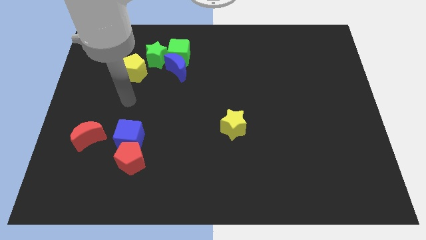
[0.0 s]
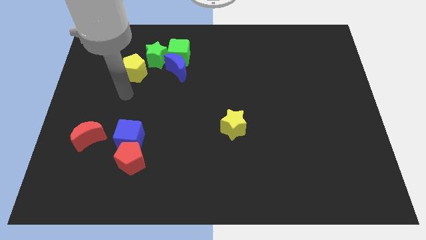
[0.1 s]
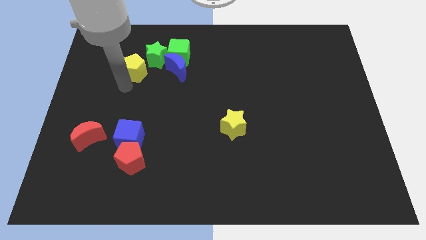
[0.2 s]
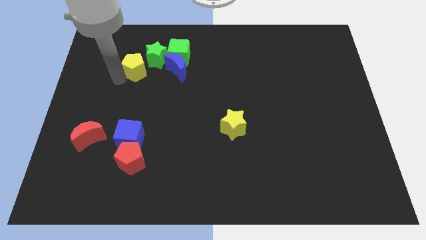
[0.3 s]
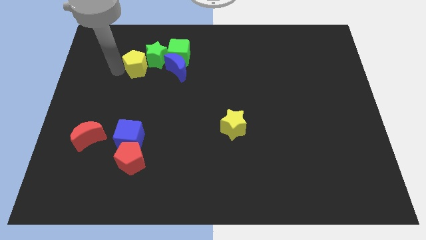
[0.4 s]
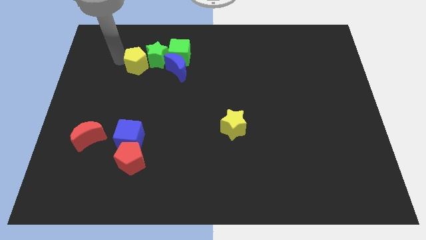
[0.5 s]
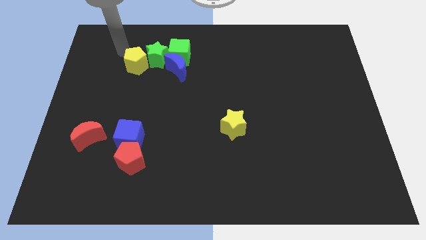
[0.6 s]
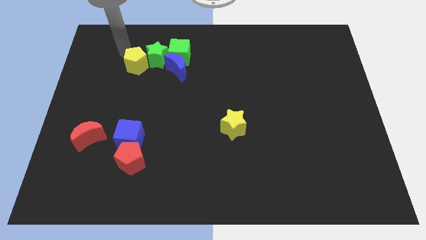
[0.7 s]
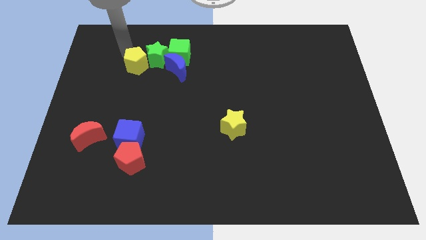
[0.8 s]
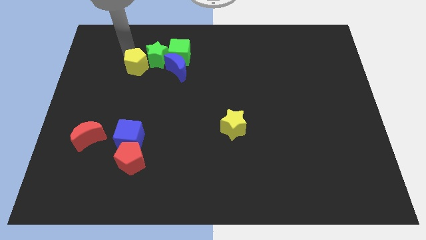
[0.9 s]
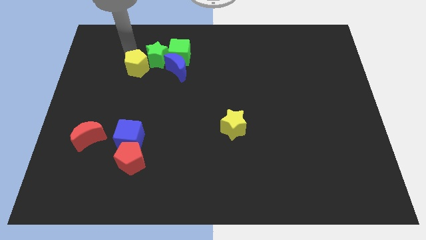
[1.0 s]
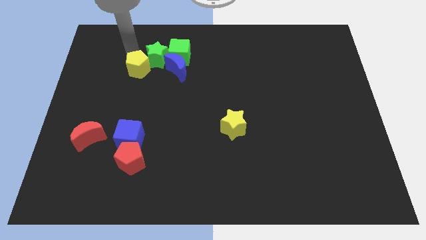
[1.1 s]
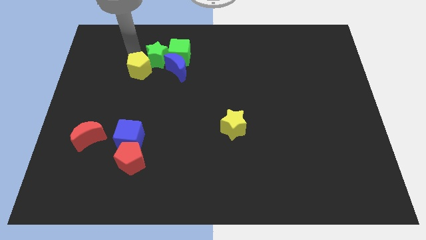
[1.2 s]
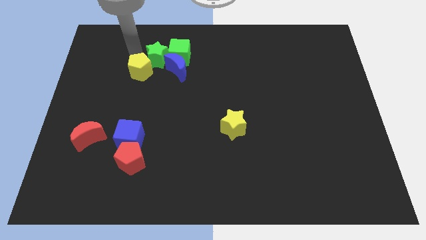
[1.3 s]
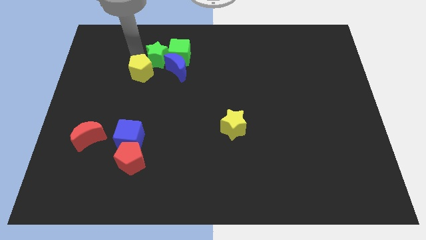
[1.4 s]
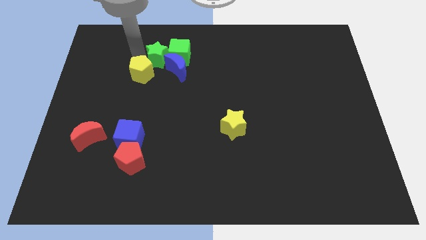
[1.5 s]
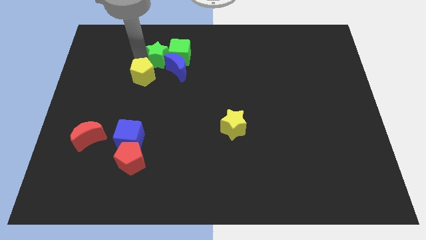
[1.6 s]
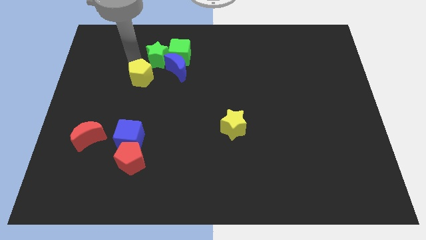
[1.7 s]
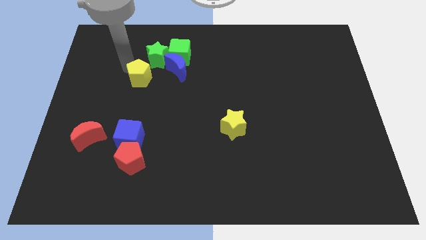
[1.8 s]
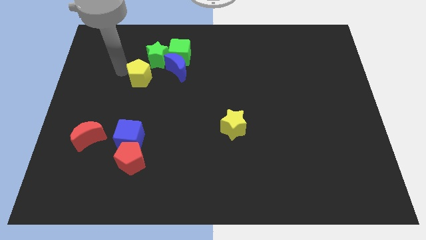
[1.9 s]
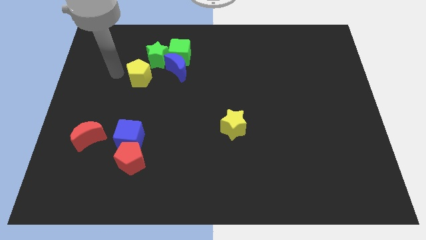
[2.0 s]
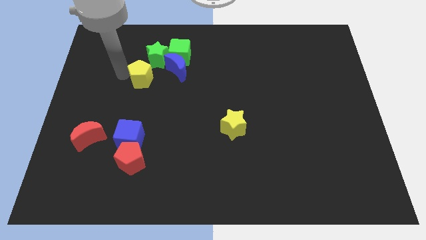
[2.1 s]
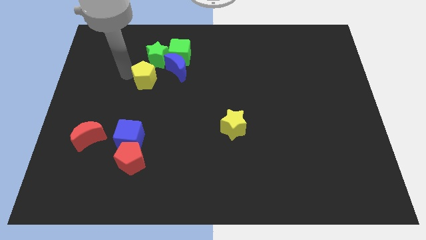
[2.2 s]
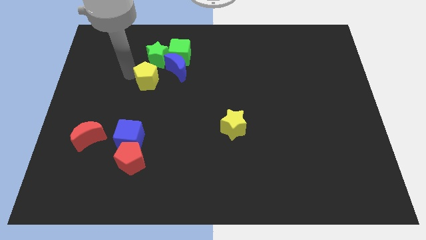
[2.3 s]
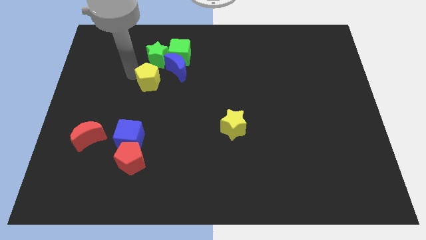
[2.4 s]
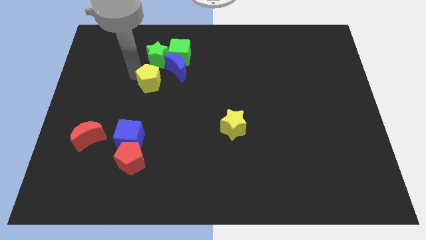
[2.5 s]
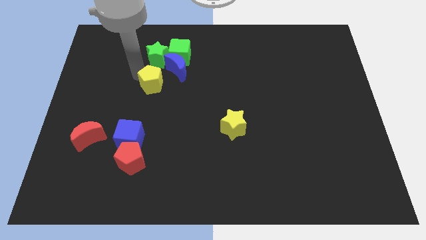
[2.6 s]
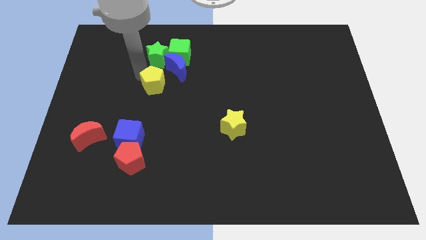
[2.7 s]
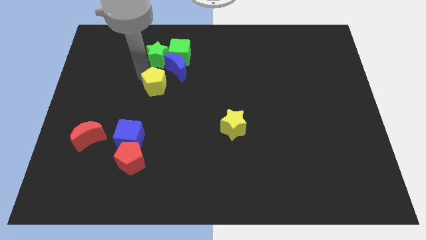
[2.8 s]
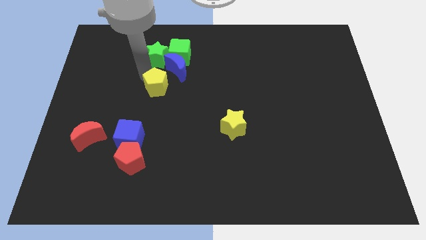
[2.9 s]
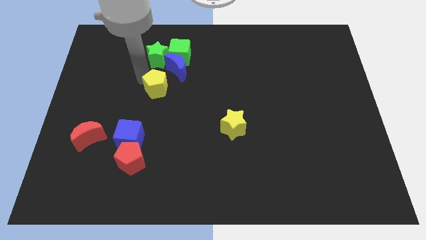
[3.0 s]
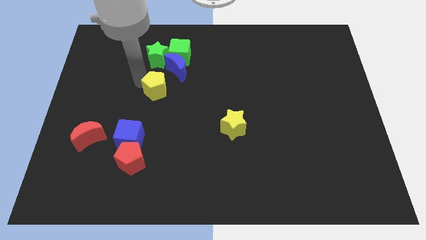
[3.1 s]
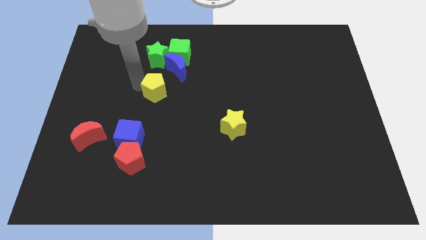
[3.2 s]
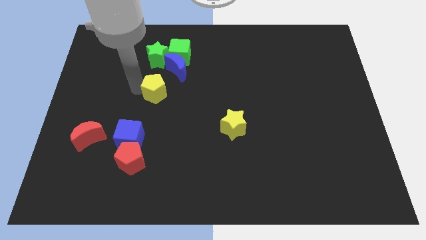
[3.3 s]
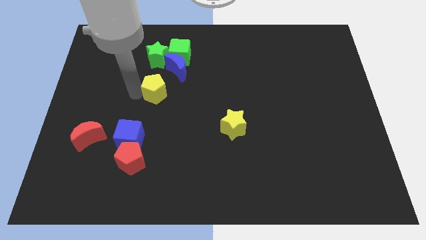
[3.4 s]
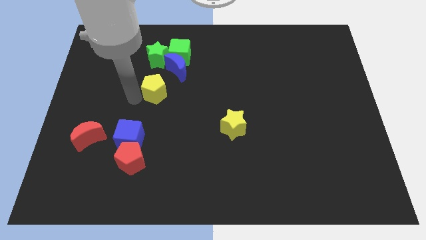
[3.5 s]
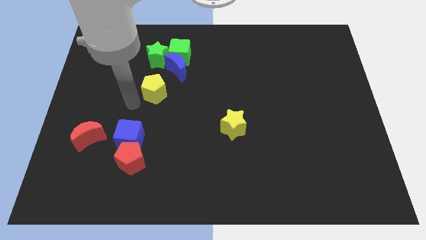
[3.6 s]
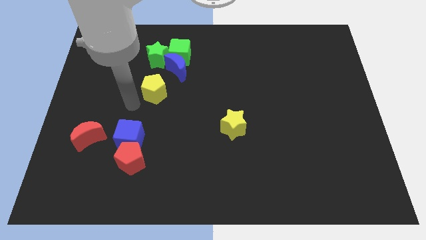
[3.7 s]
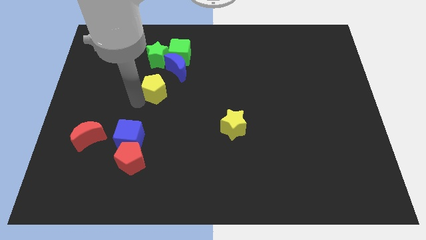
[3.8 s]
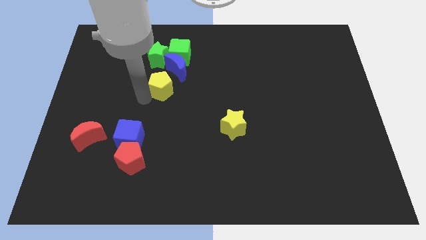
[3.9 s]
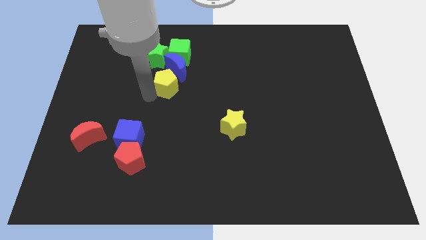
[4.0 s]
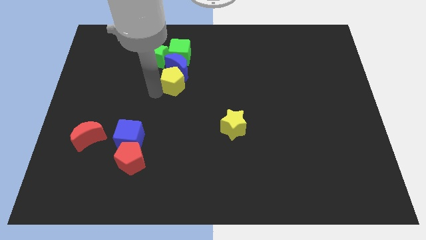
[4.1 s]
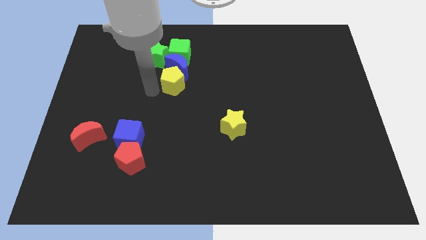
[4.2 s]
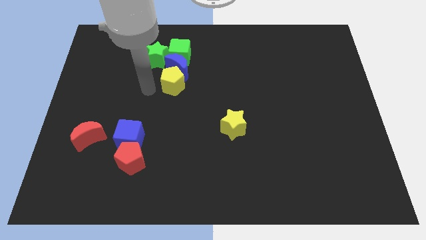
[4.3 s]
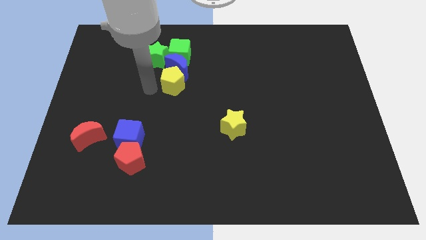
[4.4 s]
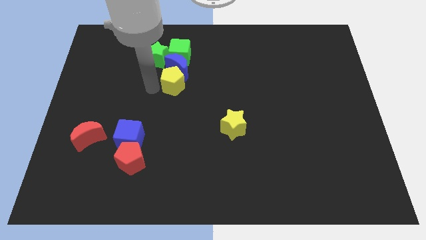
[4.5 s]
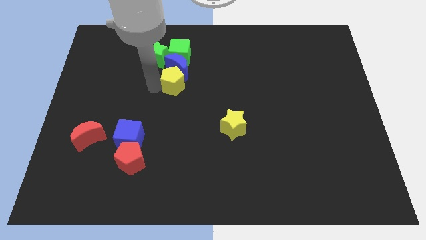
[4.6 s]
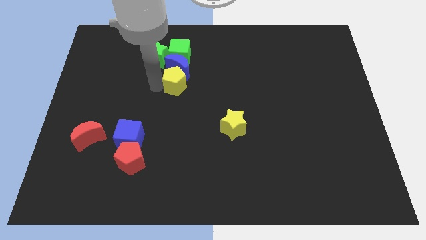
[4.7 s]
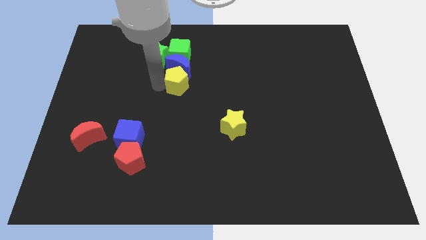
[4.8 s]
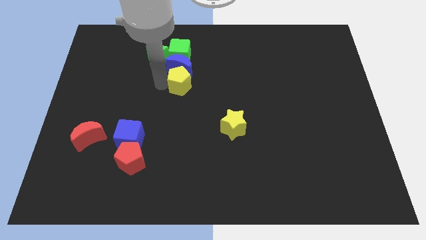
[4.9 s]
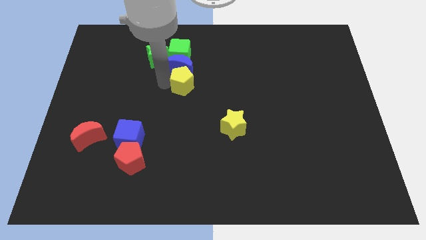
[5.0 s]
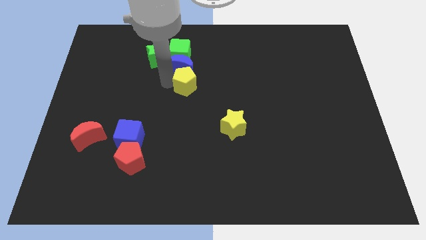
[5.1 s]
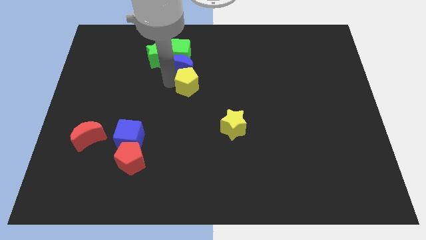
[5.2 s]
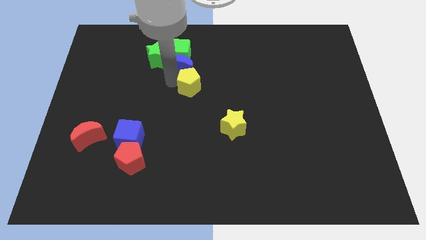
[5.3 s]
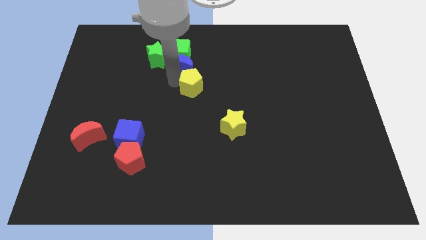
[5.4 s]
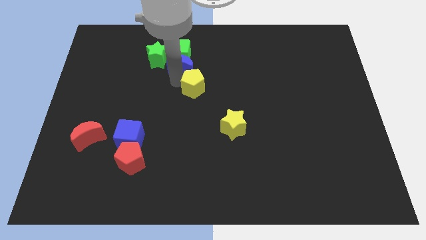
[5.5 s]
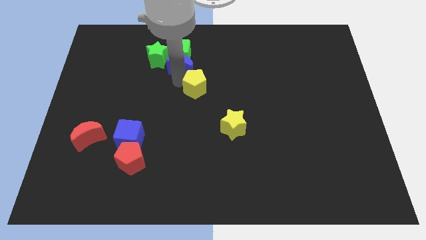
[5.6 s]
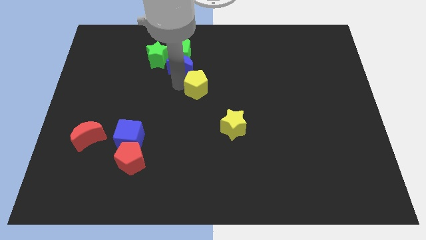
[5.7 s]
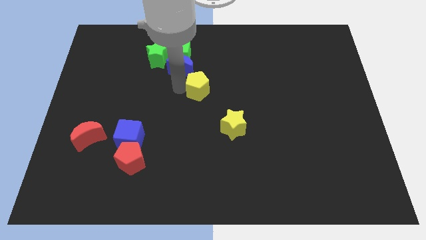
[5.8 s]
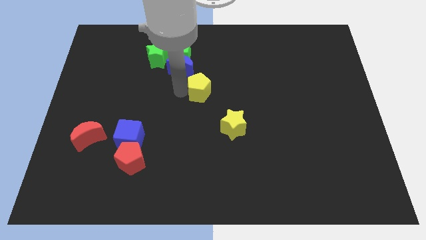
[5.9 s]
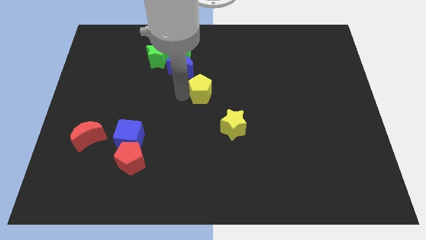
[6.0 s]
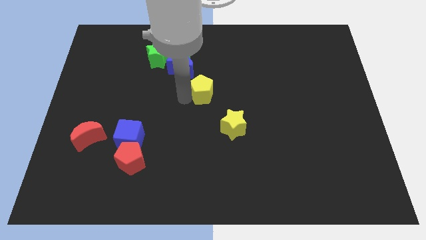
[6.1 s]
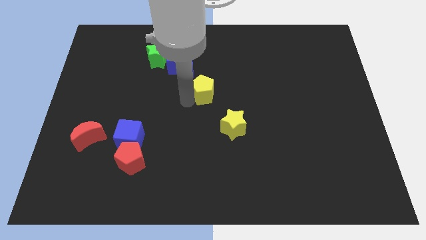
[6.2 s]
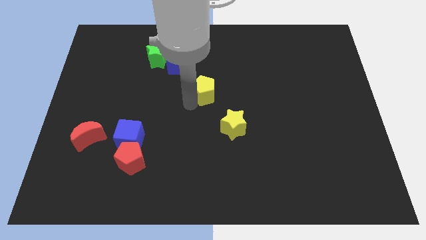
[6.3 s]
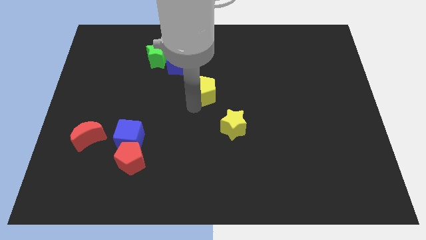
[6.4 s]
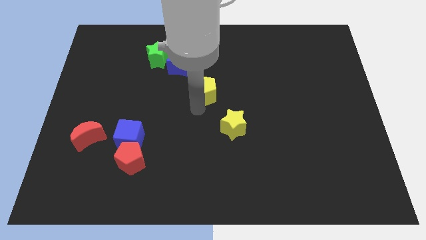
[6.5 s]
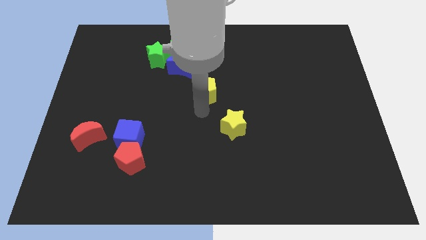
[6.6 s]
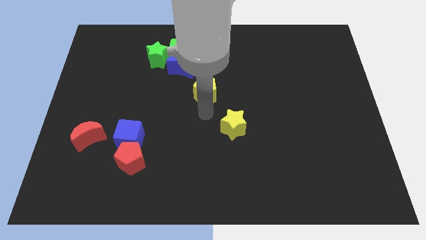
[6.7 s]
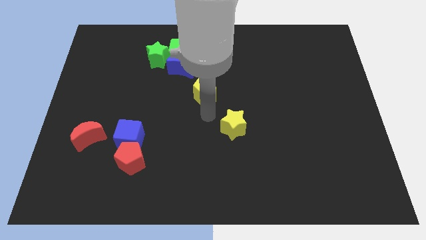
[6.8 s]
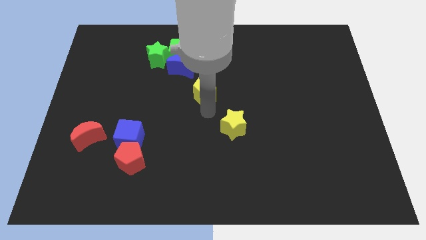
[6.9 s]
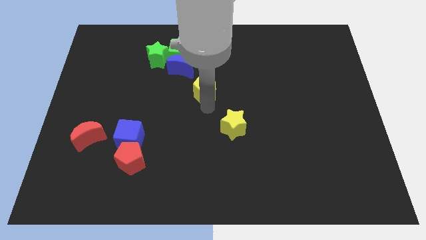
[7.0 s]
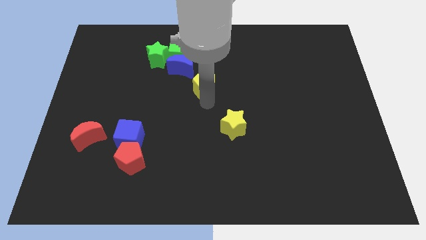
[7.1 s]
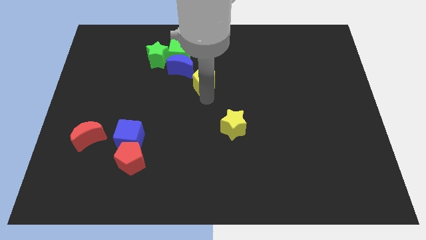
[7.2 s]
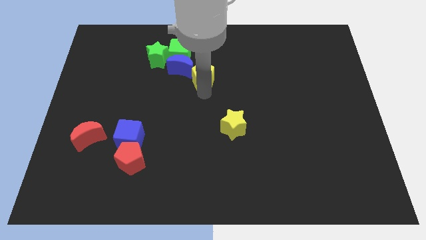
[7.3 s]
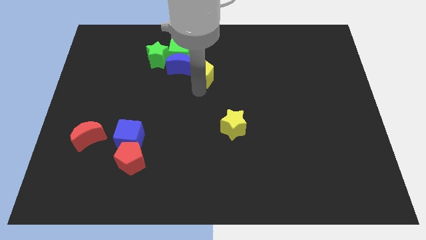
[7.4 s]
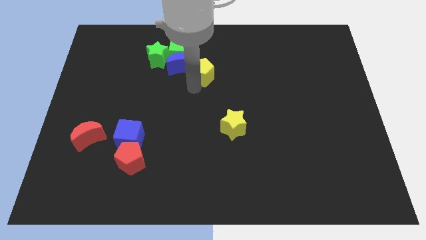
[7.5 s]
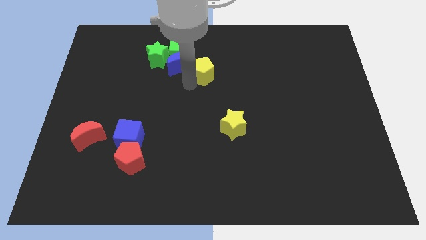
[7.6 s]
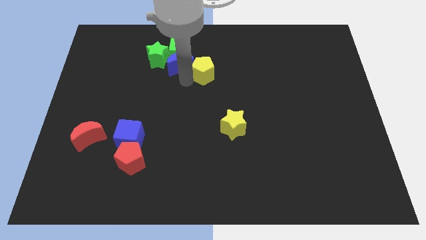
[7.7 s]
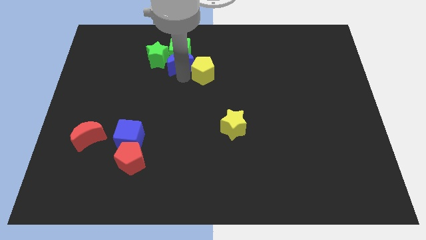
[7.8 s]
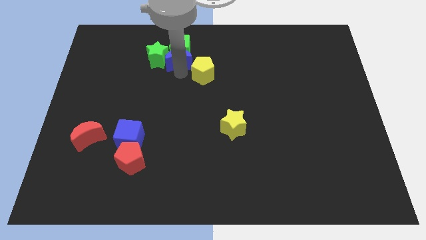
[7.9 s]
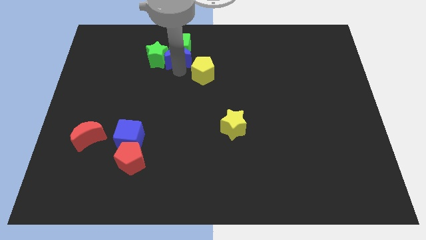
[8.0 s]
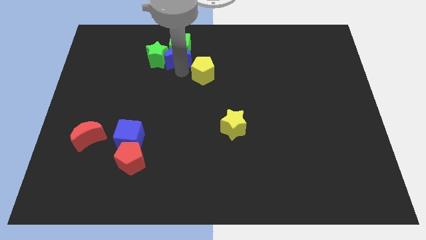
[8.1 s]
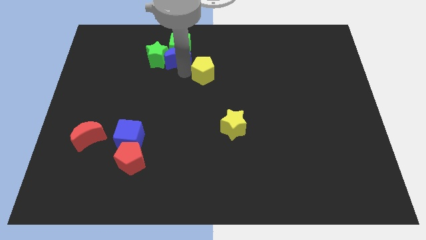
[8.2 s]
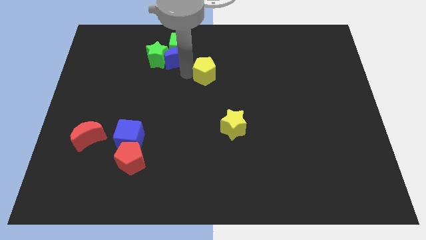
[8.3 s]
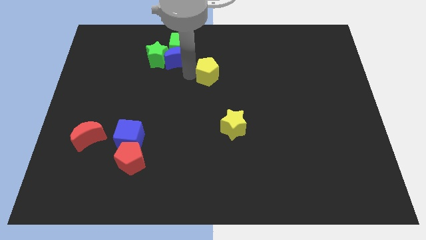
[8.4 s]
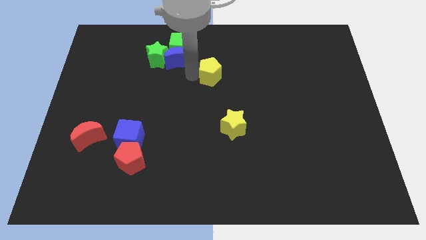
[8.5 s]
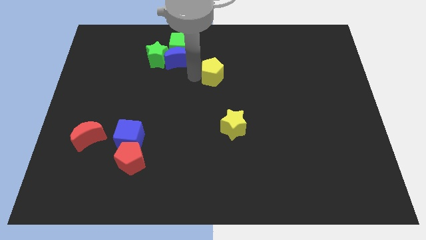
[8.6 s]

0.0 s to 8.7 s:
slide the yellow pentagon to the right
